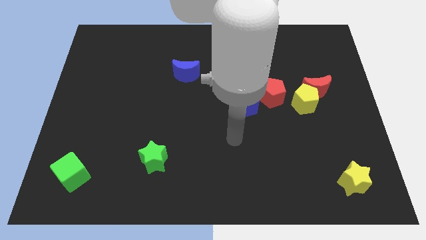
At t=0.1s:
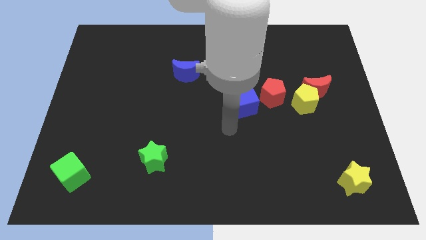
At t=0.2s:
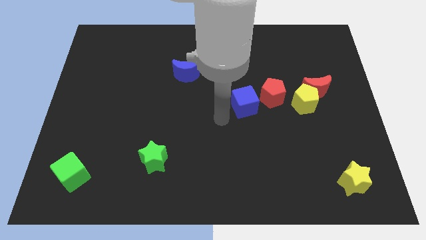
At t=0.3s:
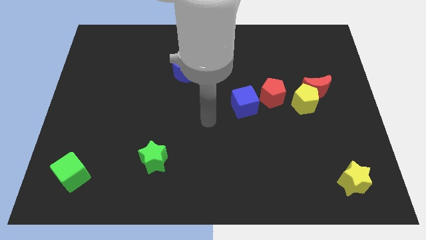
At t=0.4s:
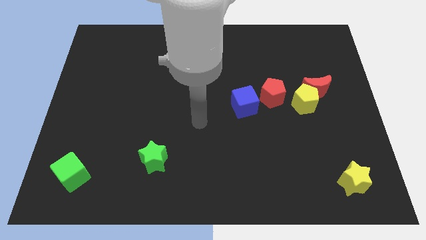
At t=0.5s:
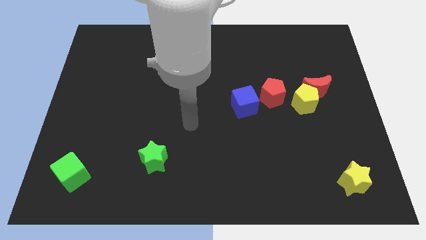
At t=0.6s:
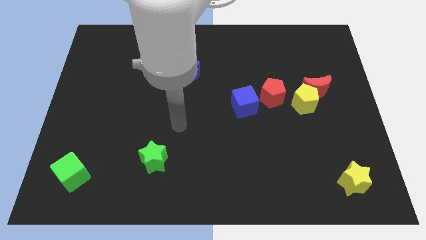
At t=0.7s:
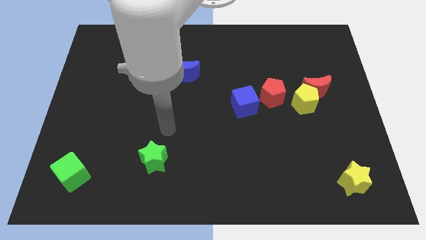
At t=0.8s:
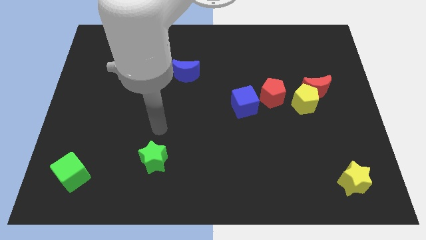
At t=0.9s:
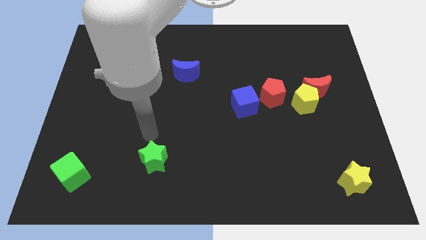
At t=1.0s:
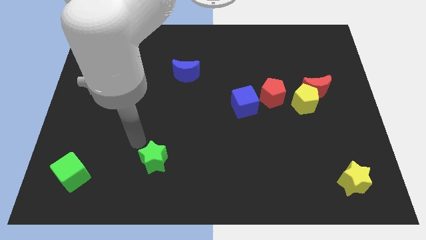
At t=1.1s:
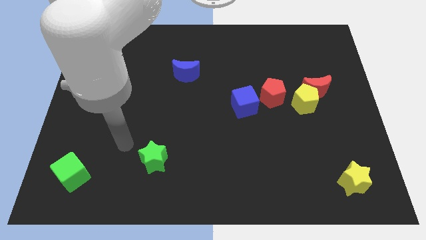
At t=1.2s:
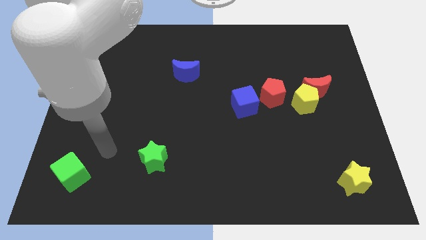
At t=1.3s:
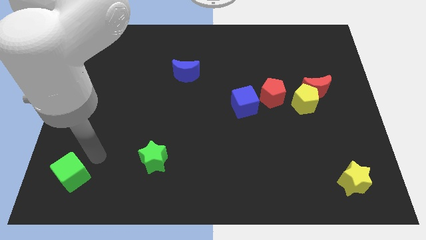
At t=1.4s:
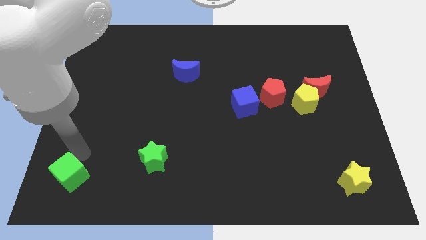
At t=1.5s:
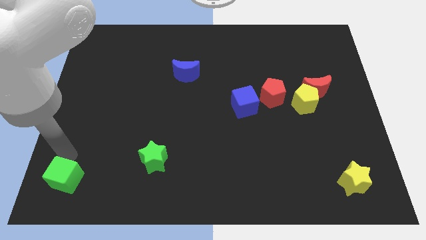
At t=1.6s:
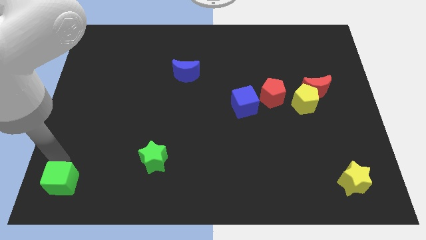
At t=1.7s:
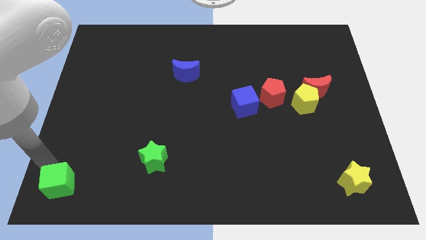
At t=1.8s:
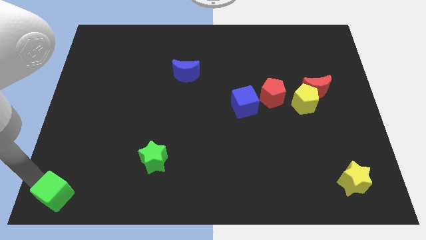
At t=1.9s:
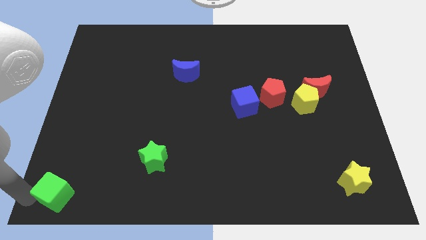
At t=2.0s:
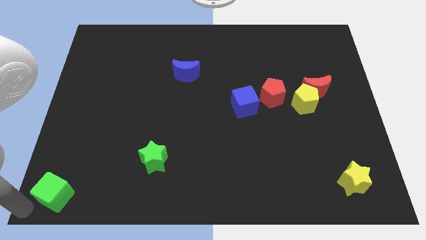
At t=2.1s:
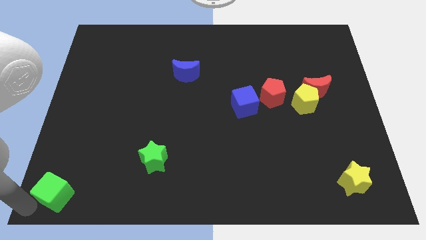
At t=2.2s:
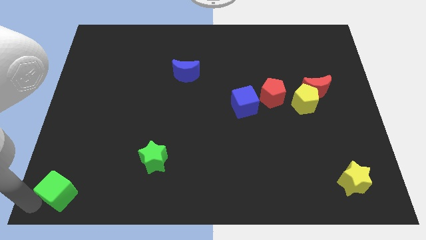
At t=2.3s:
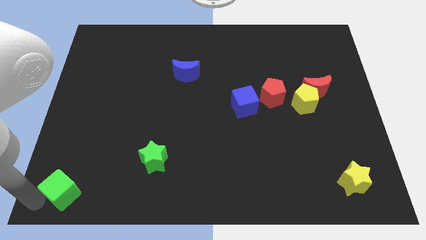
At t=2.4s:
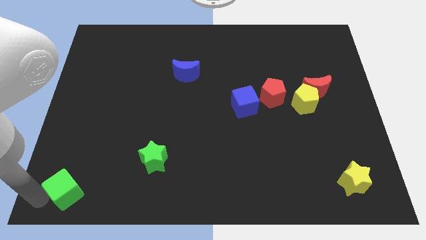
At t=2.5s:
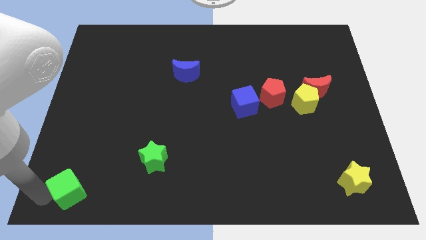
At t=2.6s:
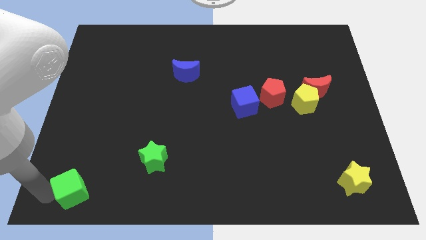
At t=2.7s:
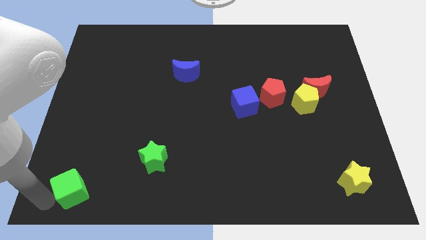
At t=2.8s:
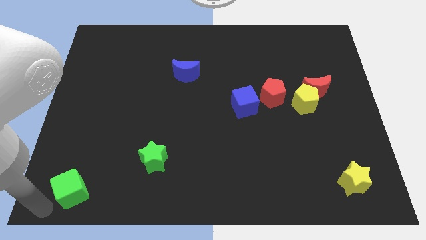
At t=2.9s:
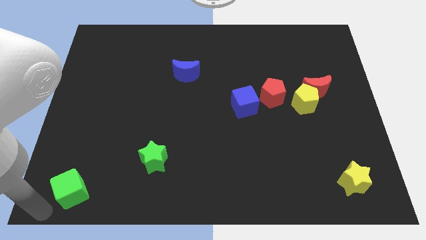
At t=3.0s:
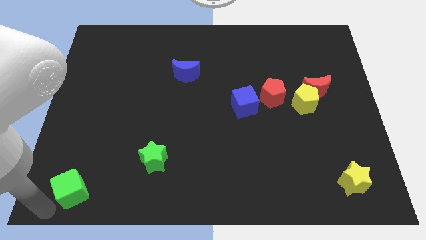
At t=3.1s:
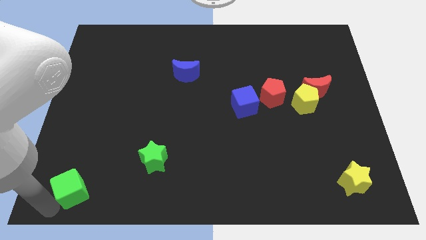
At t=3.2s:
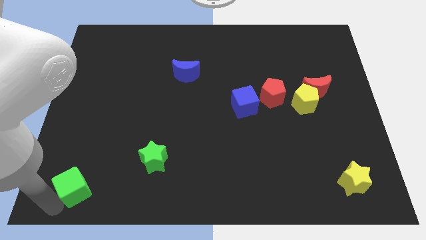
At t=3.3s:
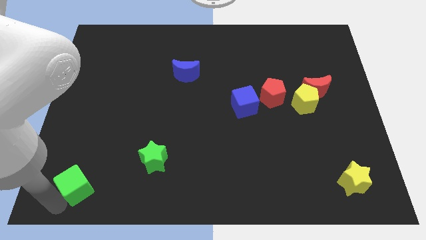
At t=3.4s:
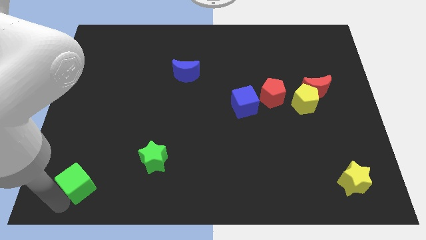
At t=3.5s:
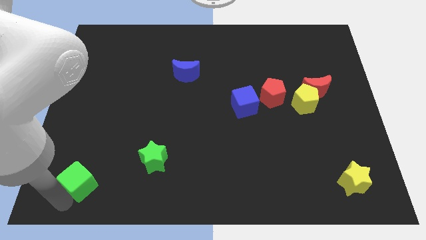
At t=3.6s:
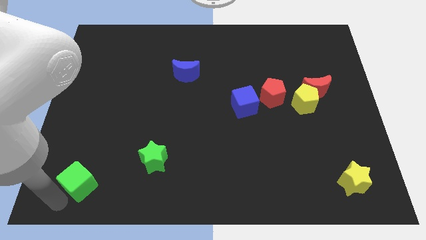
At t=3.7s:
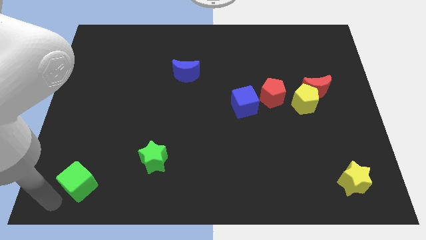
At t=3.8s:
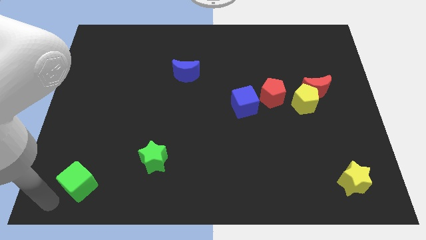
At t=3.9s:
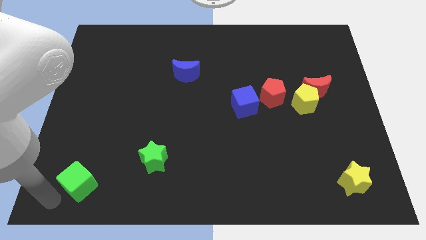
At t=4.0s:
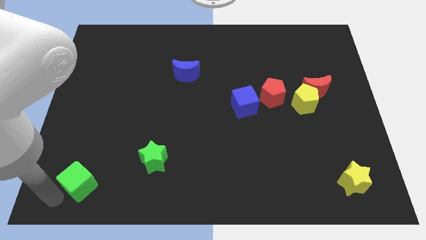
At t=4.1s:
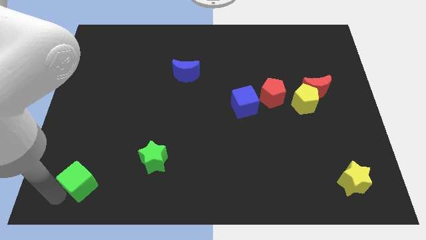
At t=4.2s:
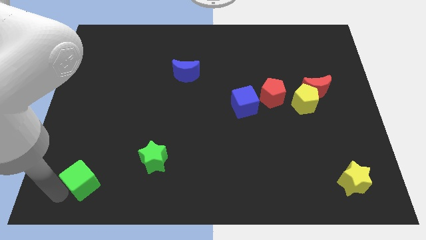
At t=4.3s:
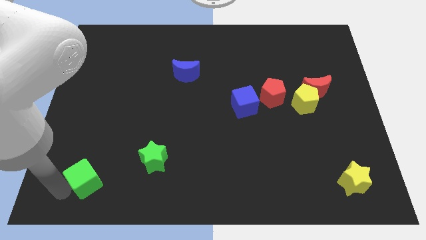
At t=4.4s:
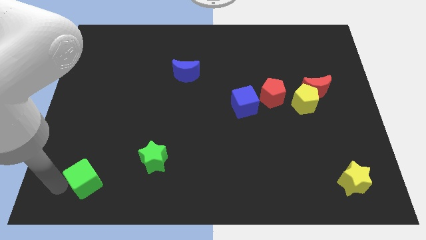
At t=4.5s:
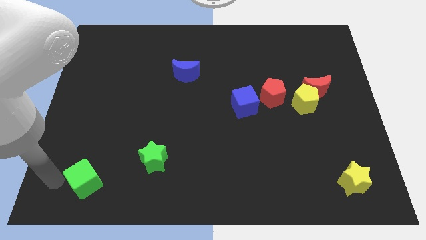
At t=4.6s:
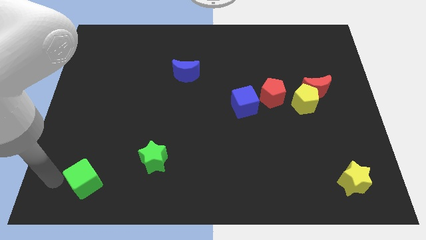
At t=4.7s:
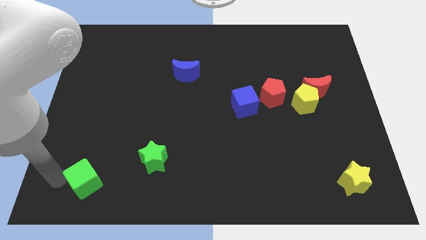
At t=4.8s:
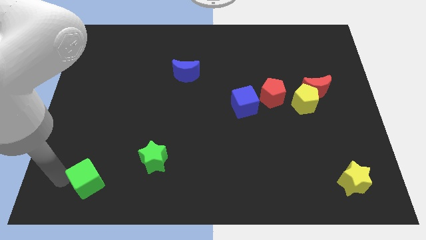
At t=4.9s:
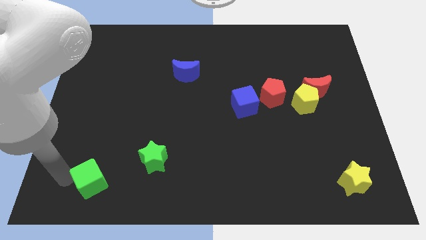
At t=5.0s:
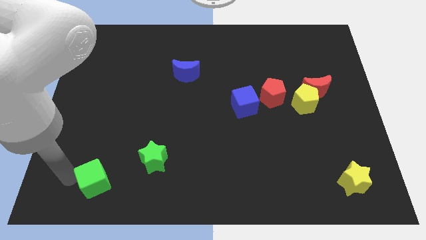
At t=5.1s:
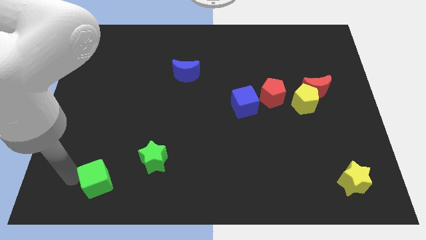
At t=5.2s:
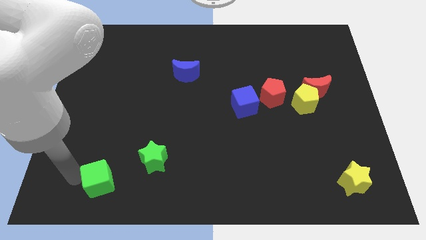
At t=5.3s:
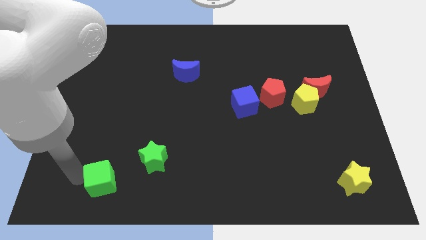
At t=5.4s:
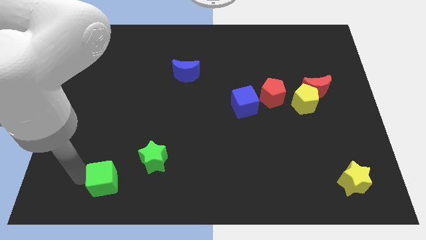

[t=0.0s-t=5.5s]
move the green cube to the right a little

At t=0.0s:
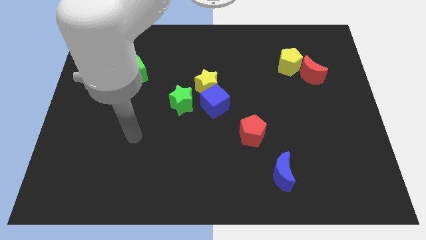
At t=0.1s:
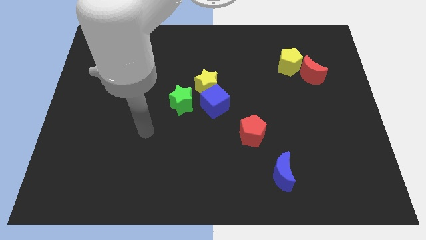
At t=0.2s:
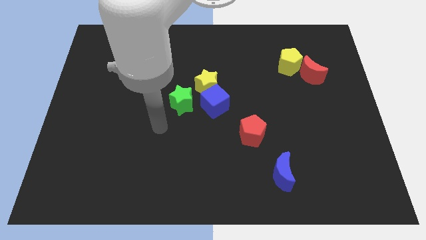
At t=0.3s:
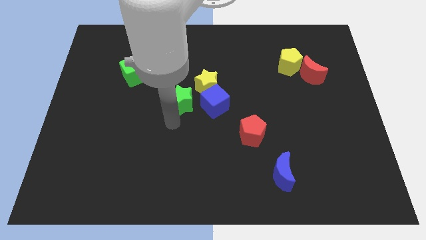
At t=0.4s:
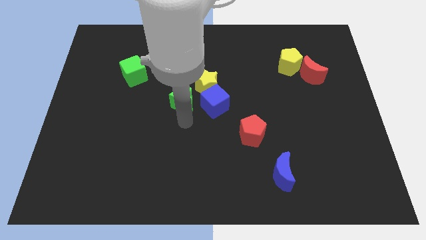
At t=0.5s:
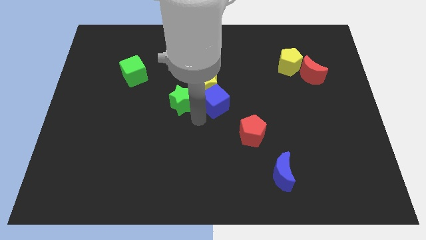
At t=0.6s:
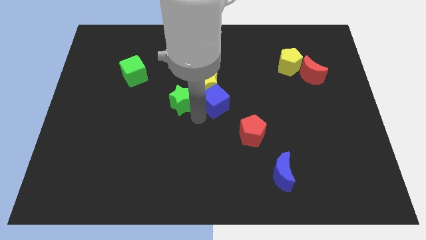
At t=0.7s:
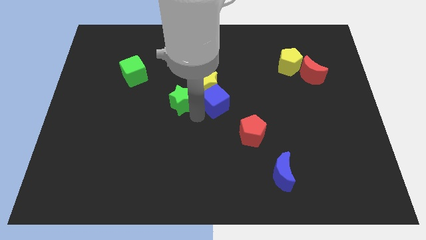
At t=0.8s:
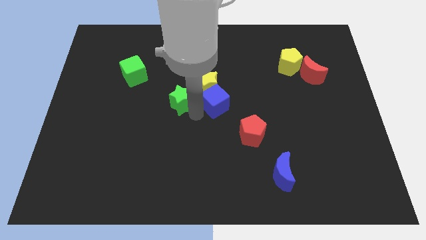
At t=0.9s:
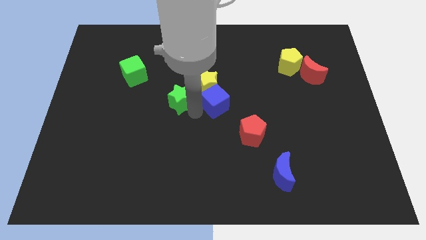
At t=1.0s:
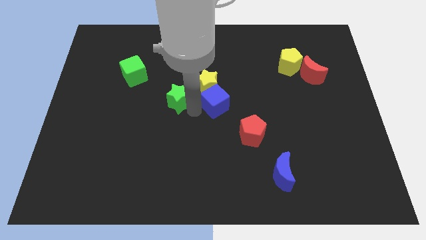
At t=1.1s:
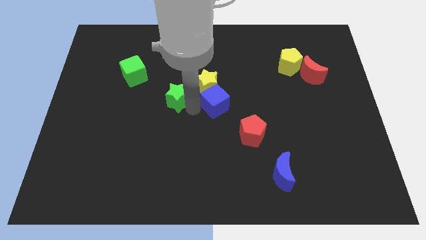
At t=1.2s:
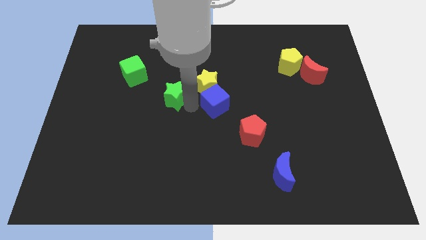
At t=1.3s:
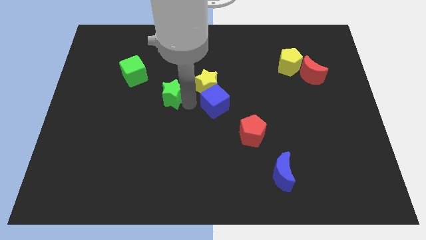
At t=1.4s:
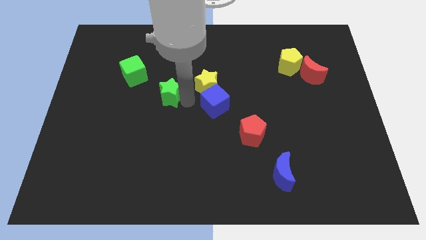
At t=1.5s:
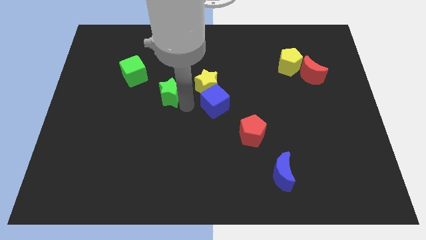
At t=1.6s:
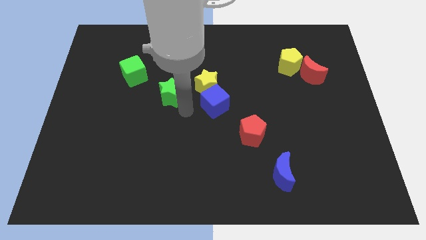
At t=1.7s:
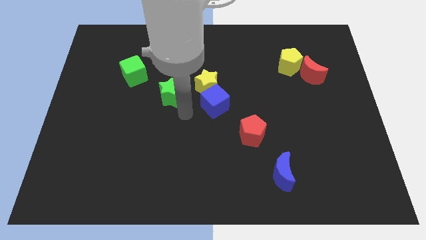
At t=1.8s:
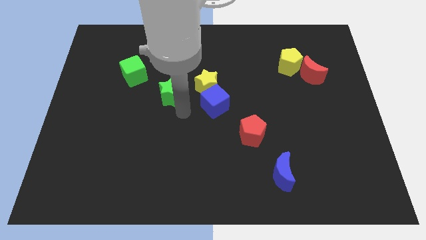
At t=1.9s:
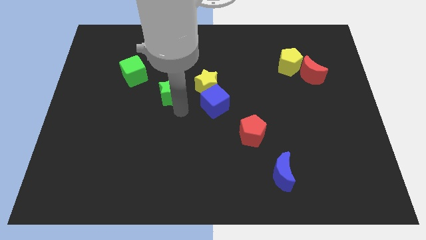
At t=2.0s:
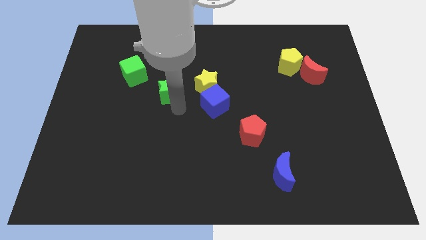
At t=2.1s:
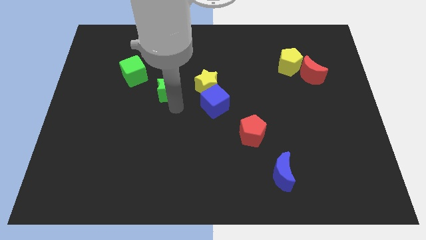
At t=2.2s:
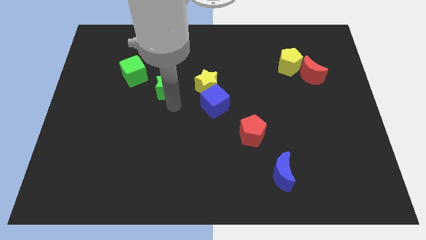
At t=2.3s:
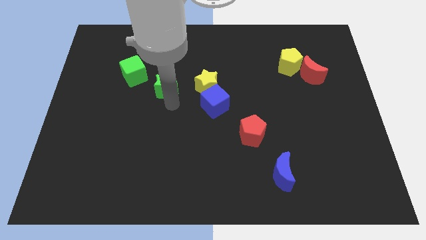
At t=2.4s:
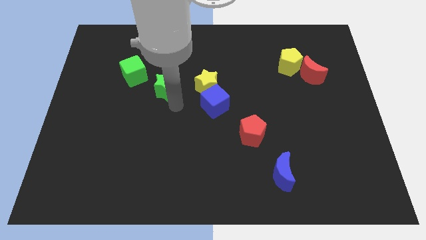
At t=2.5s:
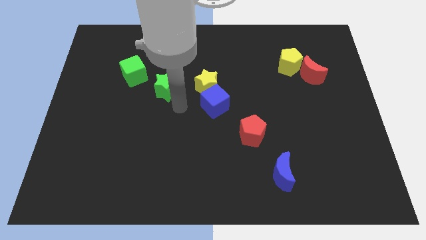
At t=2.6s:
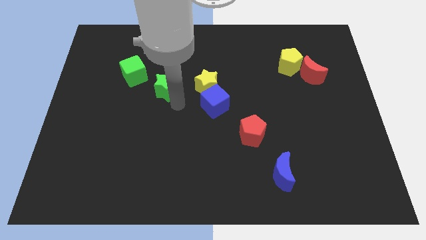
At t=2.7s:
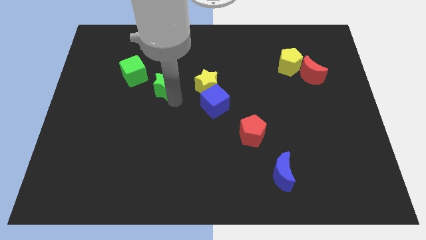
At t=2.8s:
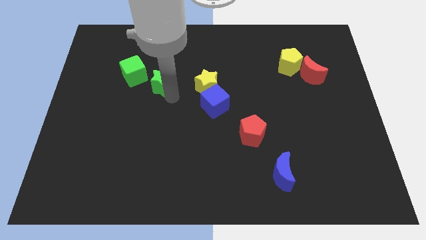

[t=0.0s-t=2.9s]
push the green star up and then left slightly
